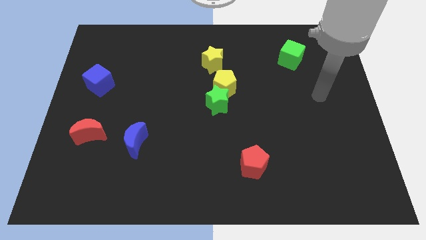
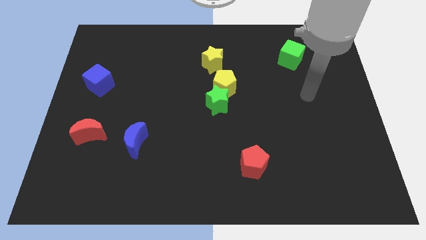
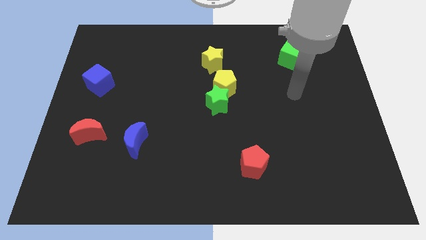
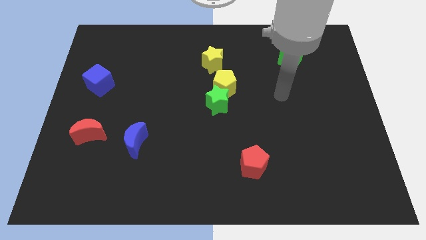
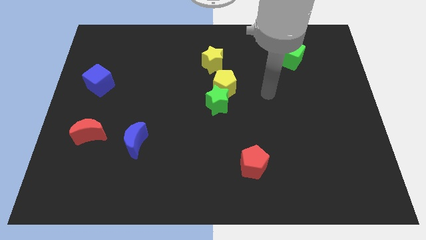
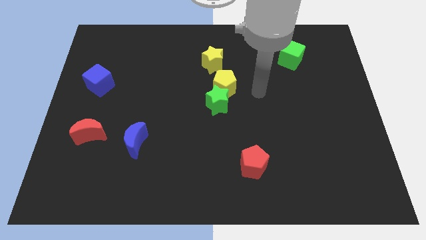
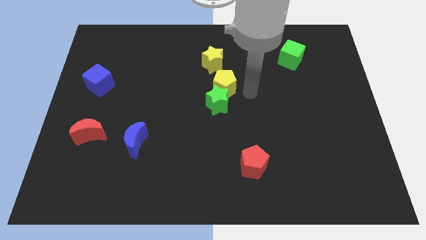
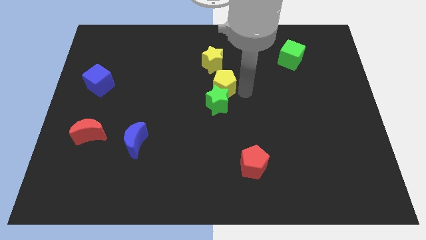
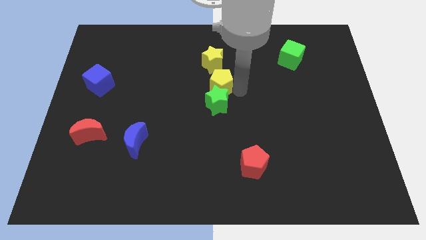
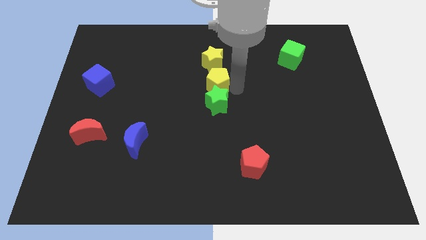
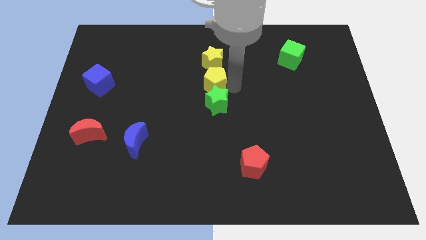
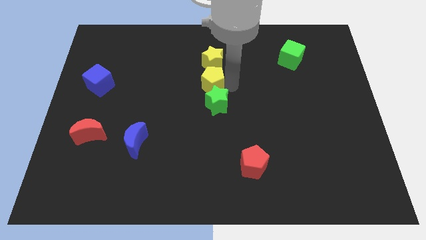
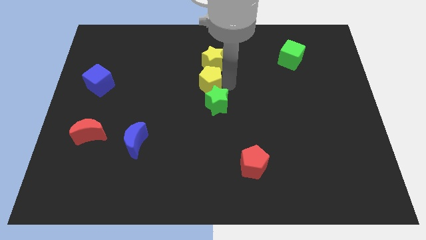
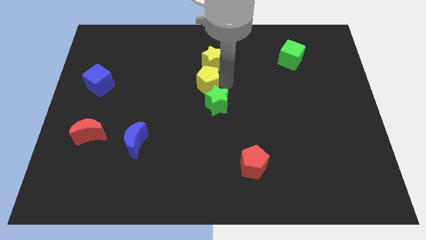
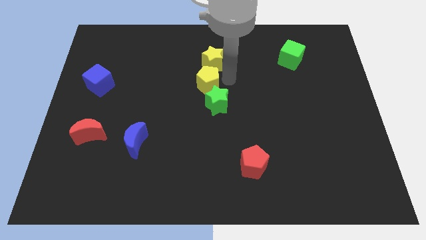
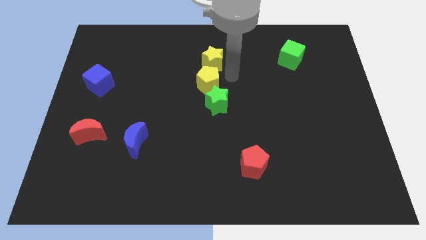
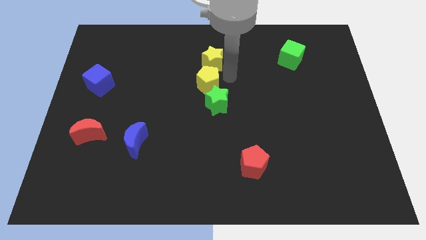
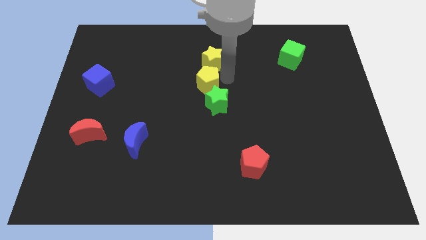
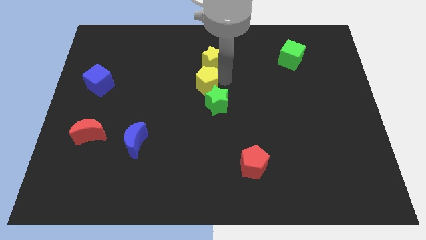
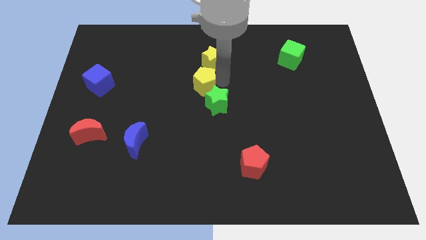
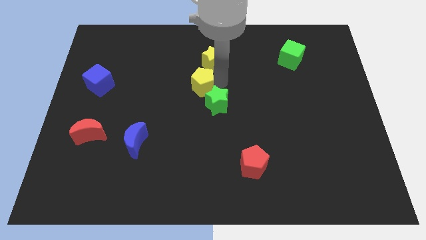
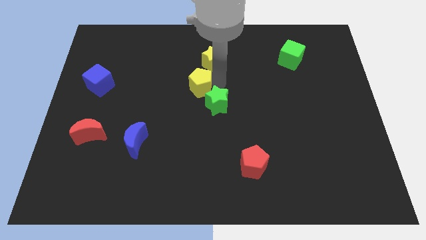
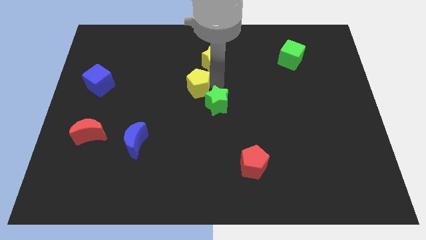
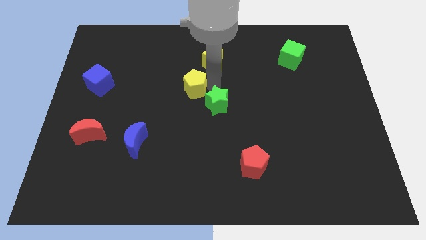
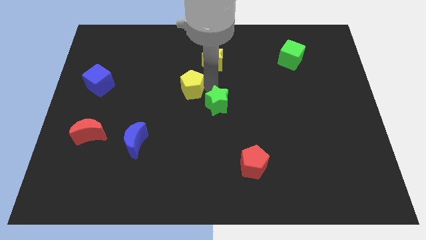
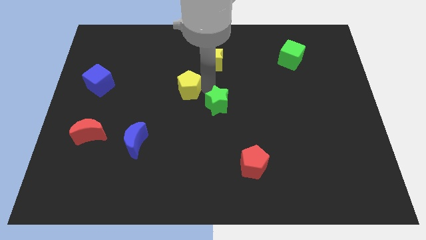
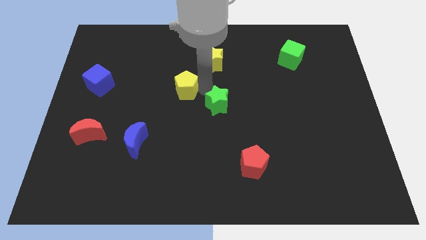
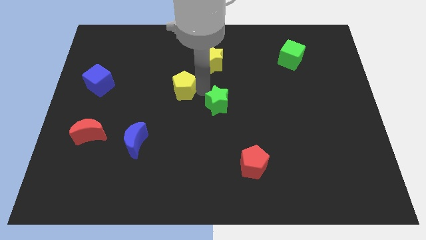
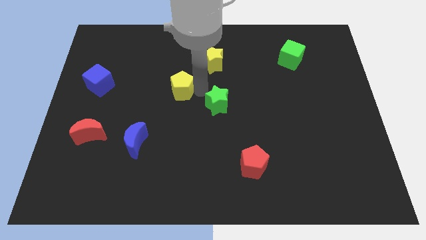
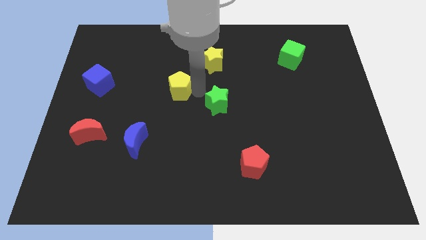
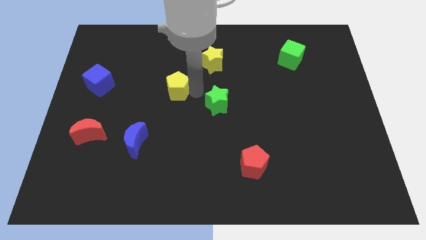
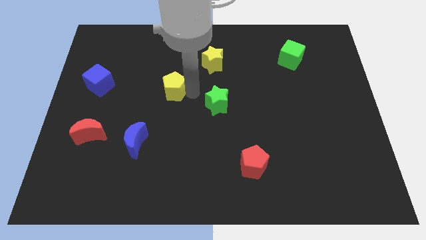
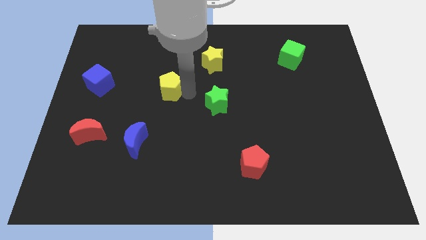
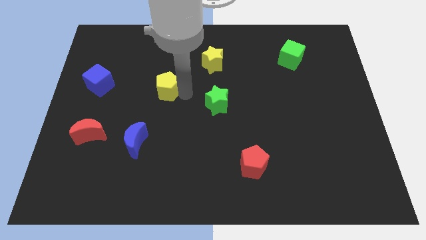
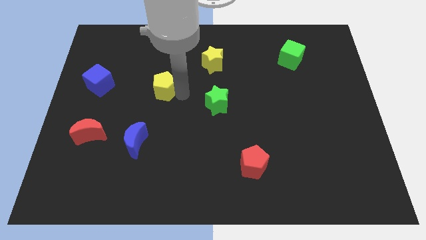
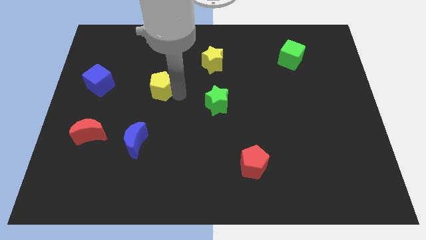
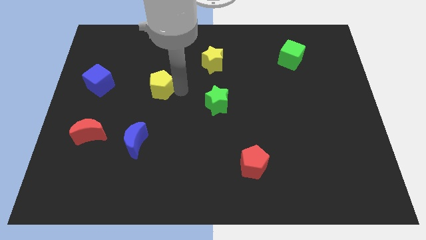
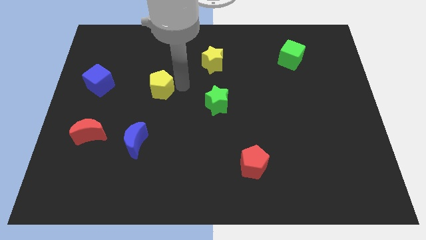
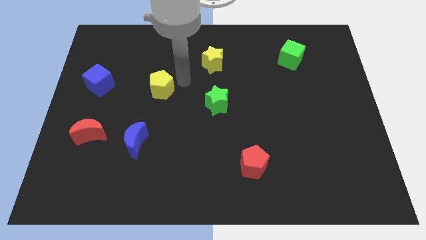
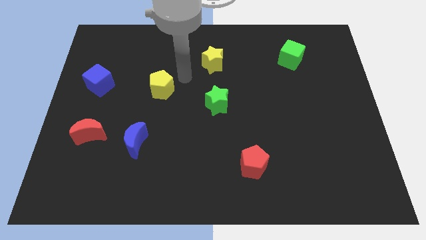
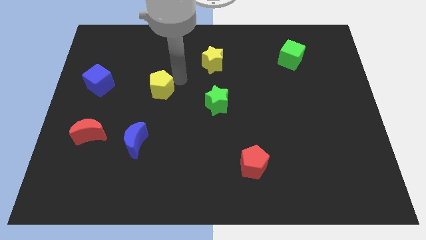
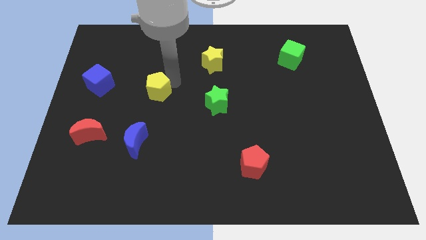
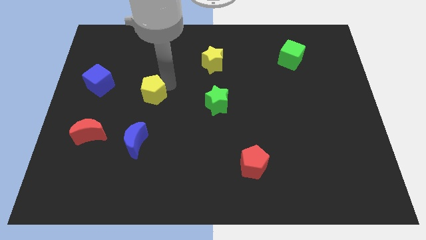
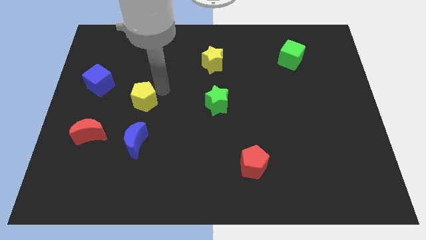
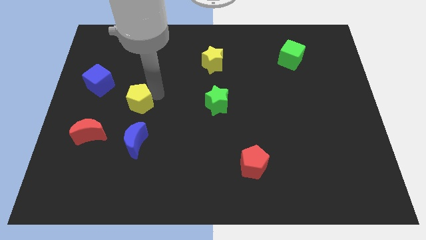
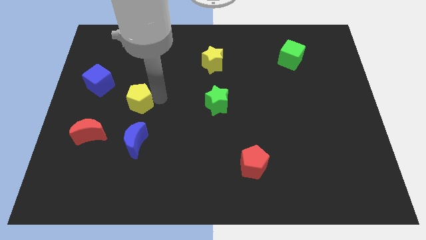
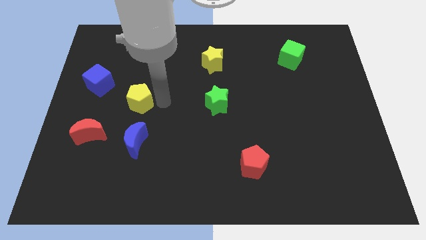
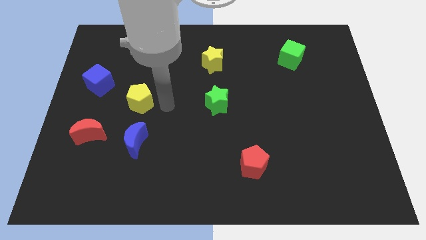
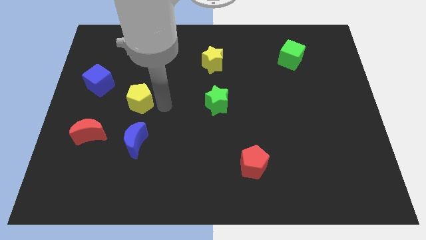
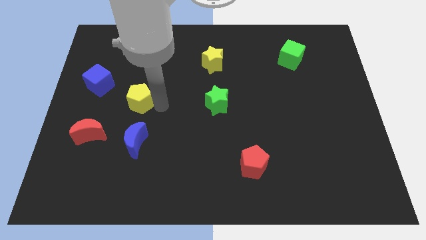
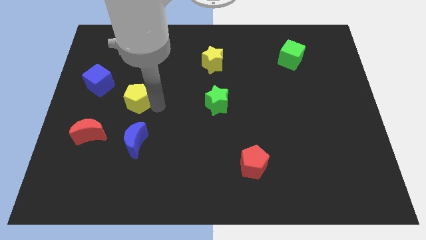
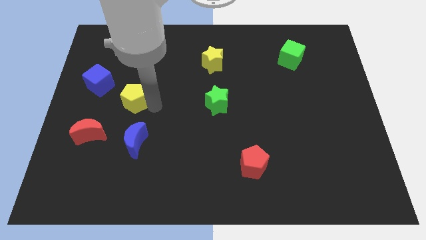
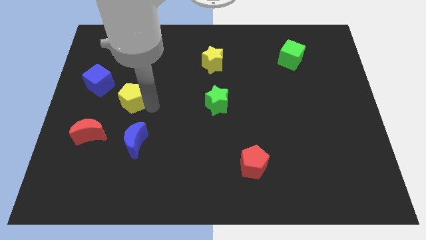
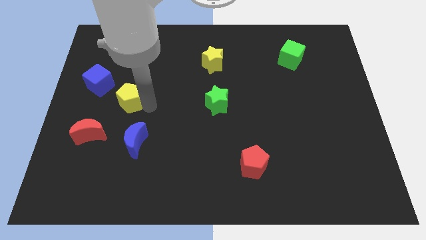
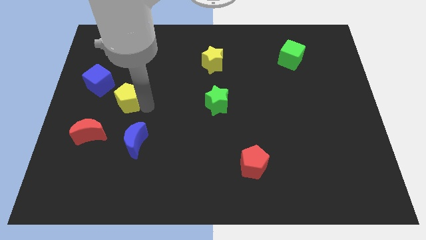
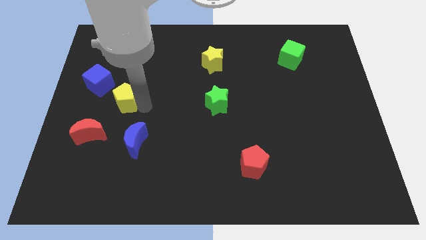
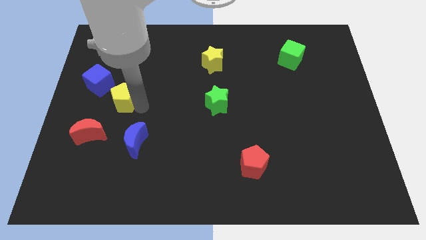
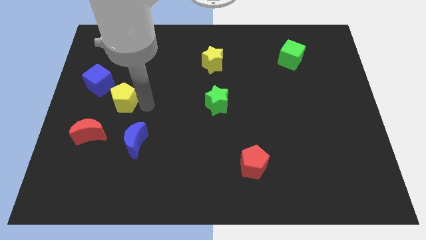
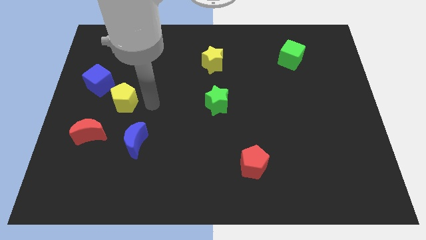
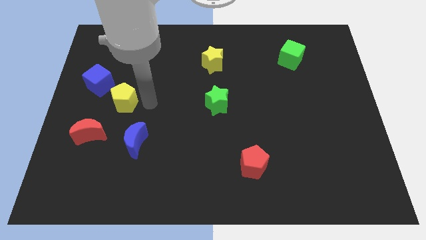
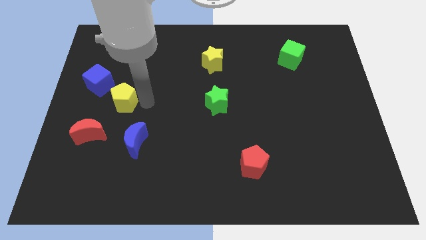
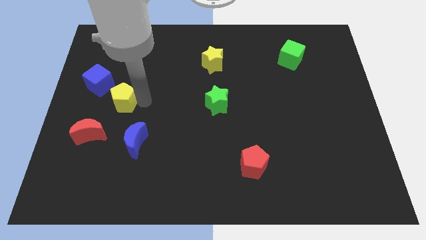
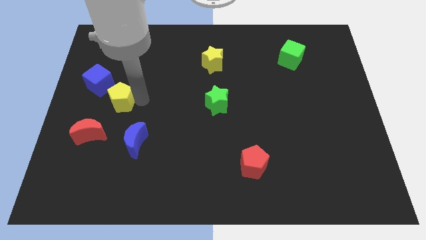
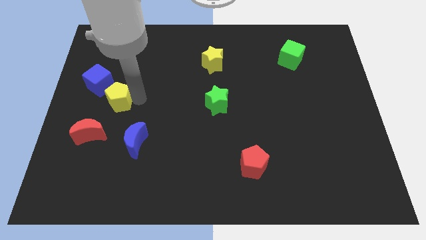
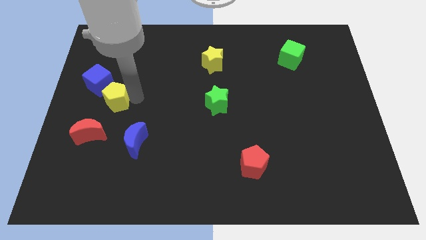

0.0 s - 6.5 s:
slide the yellow pentagon to the top side of the red moon

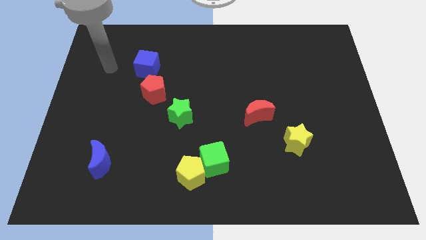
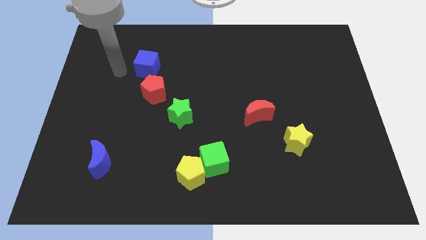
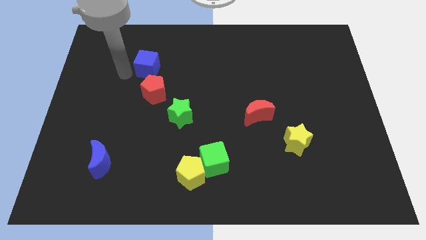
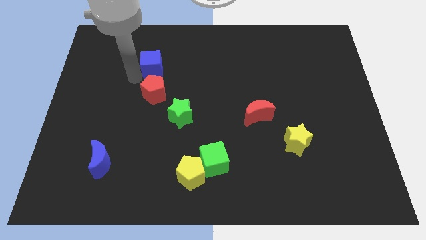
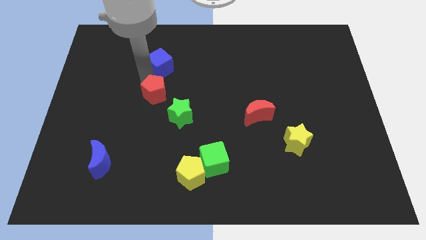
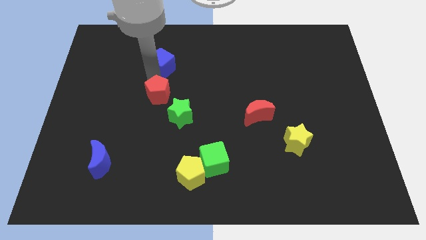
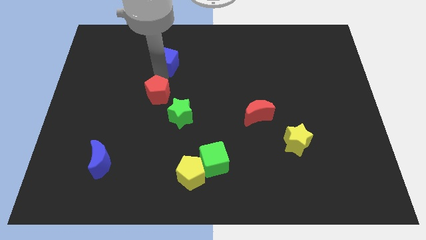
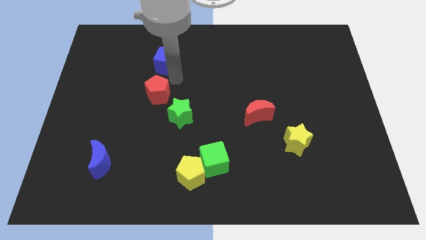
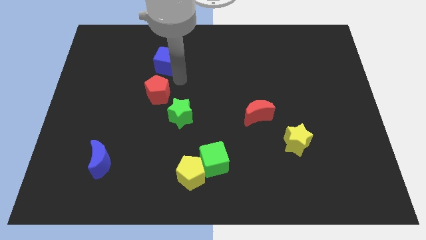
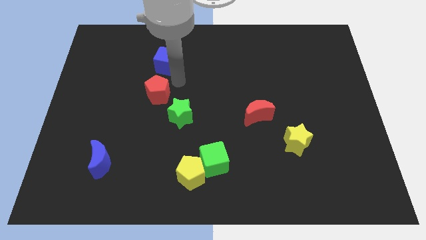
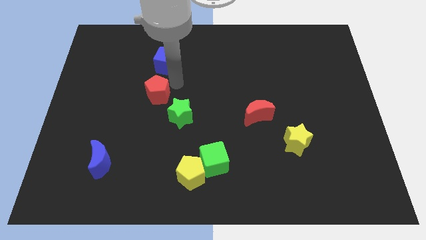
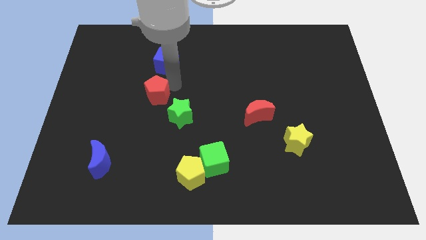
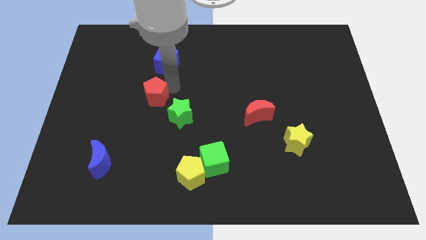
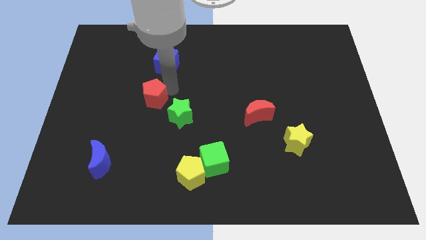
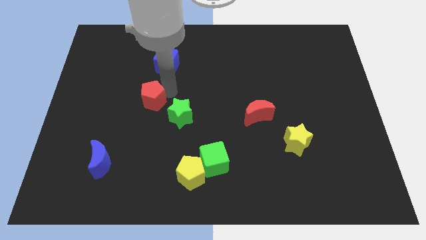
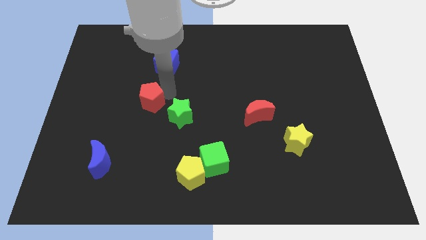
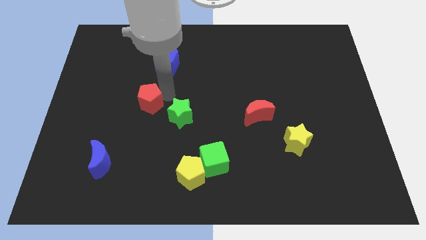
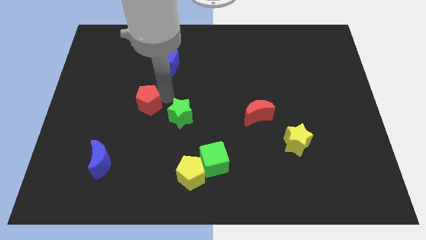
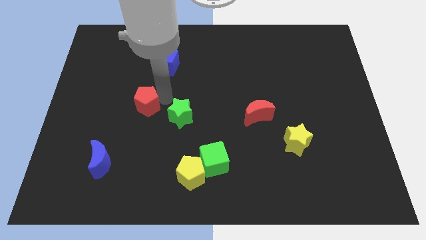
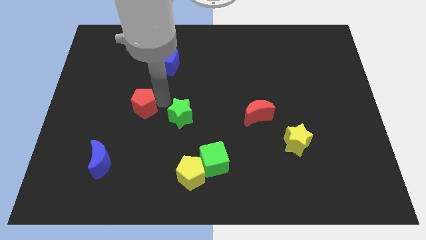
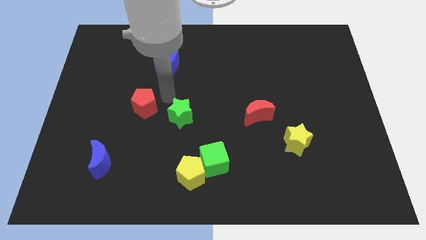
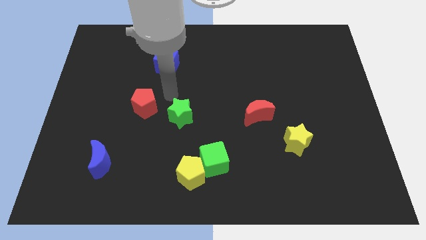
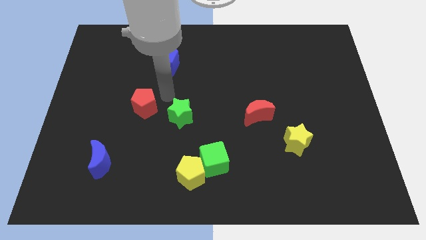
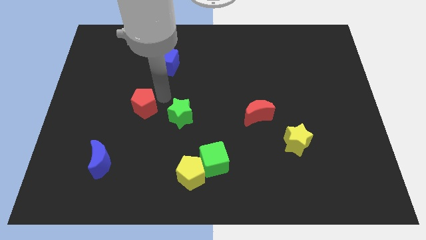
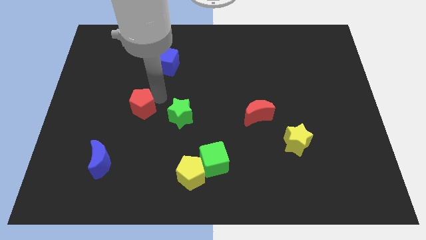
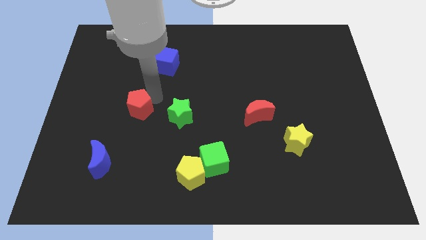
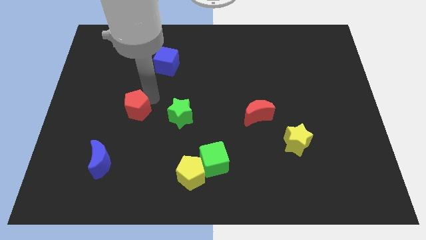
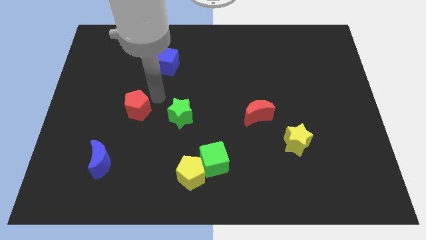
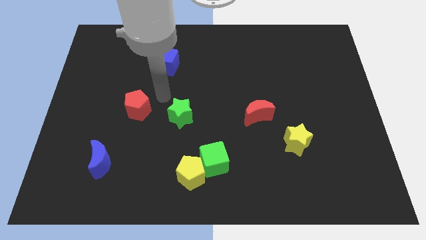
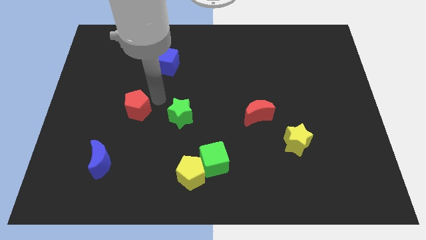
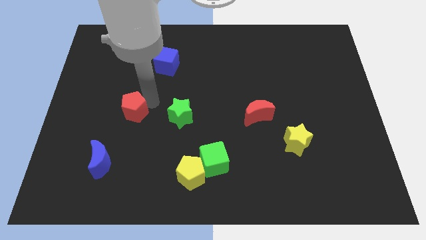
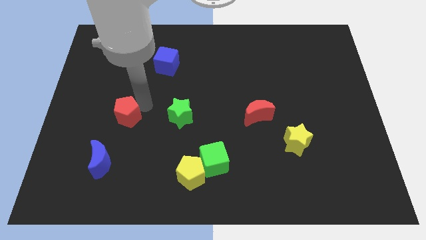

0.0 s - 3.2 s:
slide the red pentagon above the blue moon
